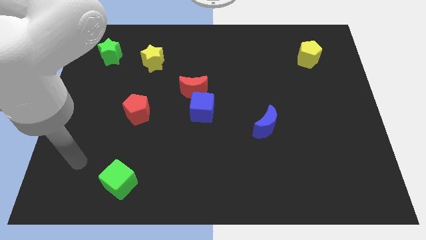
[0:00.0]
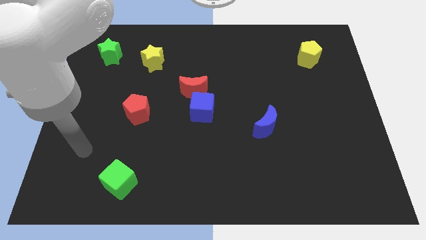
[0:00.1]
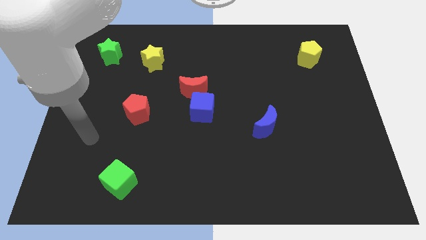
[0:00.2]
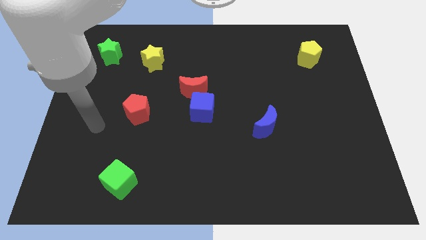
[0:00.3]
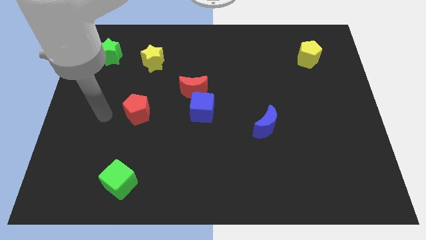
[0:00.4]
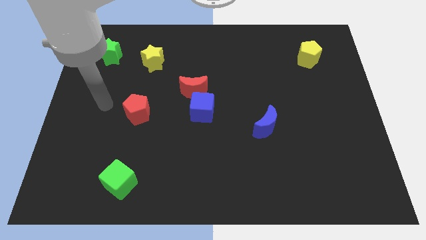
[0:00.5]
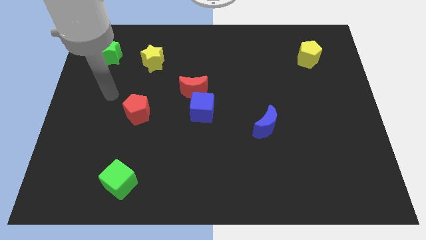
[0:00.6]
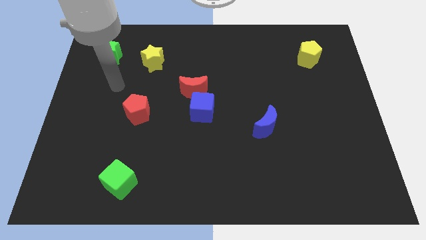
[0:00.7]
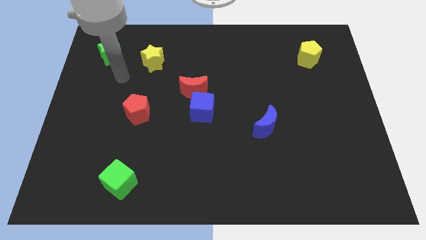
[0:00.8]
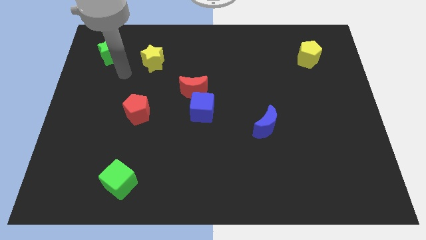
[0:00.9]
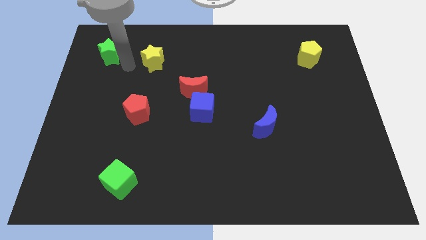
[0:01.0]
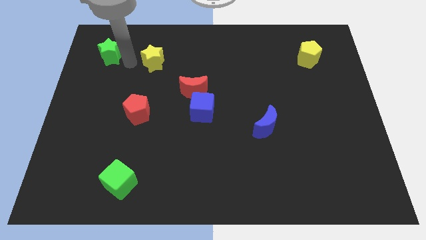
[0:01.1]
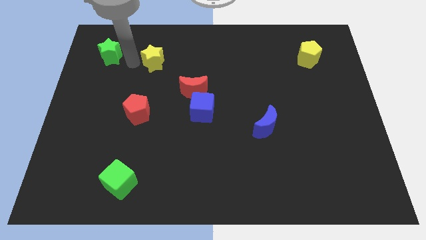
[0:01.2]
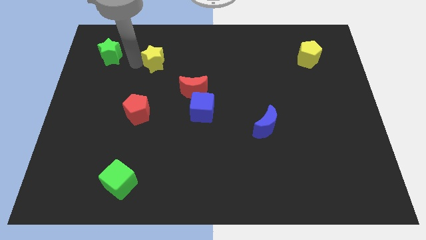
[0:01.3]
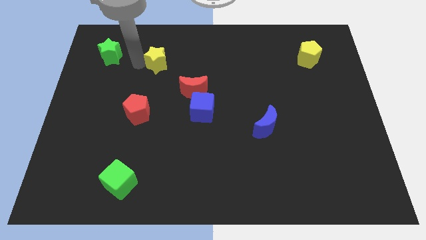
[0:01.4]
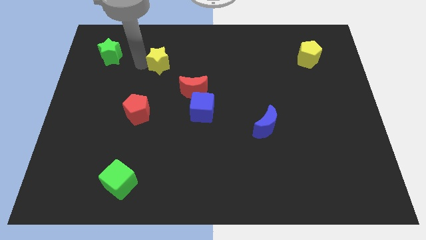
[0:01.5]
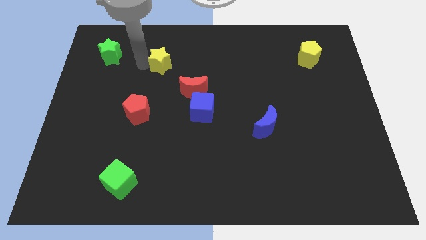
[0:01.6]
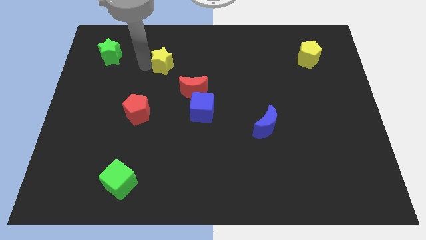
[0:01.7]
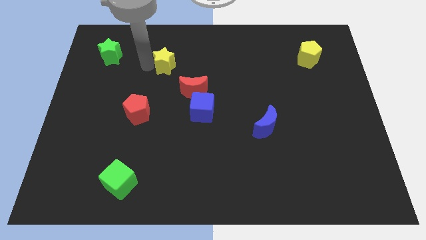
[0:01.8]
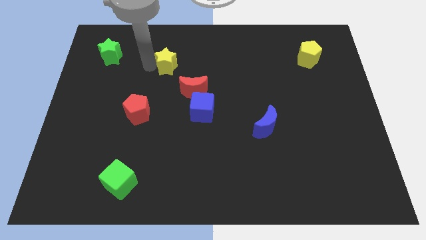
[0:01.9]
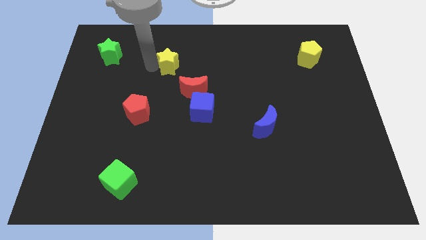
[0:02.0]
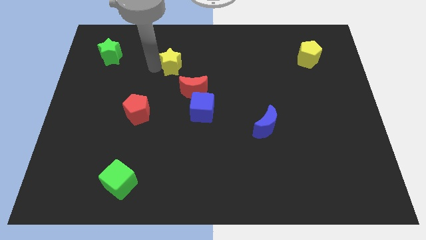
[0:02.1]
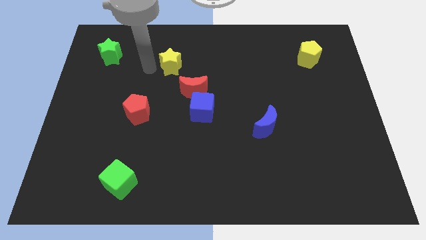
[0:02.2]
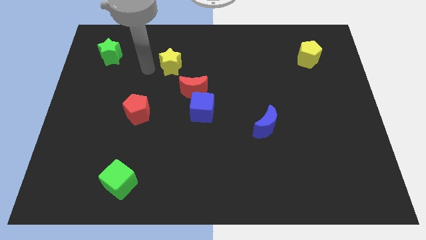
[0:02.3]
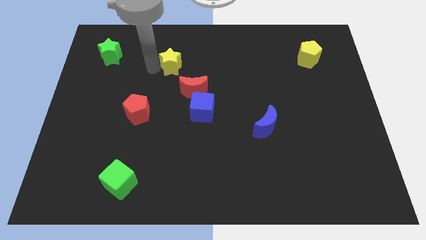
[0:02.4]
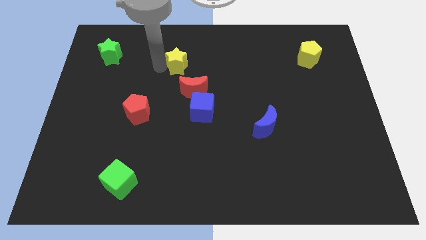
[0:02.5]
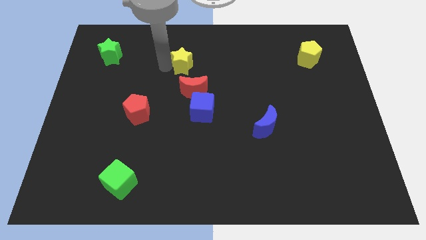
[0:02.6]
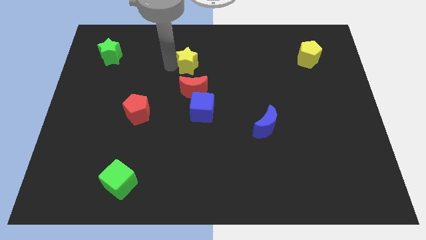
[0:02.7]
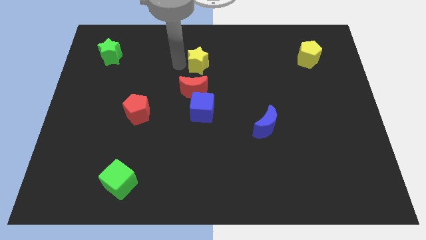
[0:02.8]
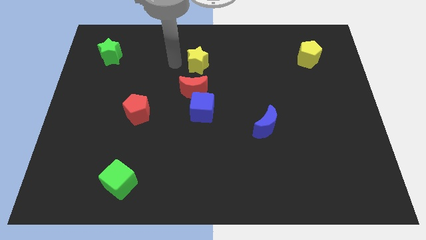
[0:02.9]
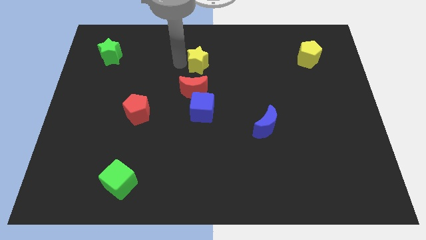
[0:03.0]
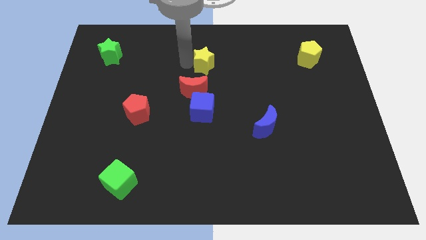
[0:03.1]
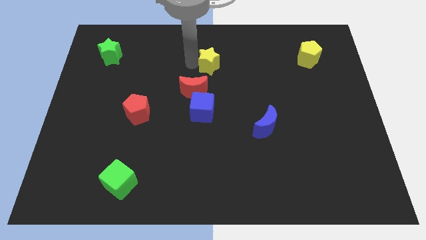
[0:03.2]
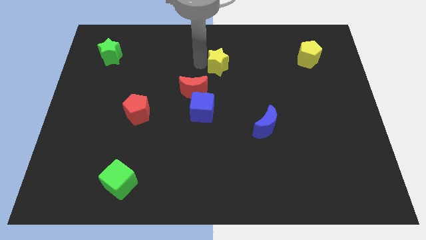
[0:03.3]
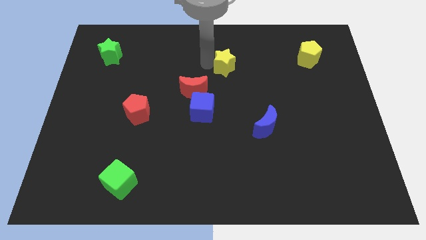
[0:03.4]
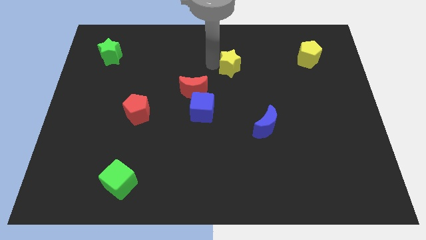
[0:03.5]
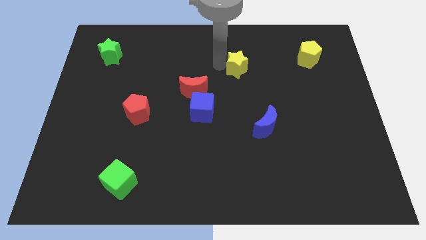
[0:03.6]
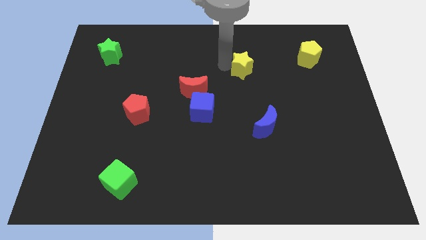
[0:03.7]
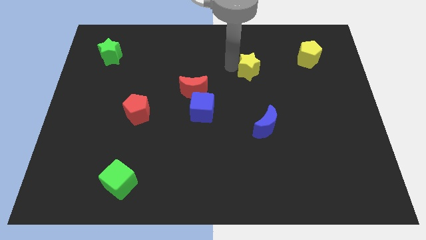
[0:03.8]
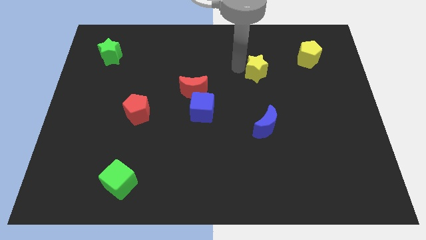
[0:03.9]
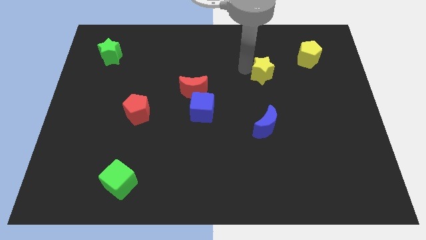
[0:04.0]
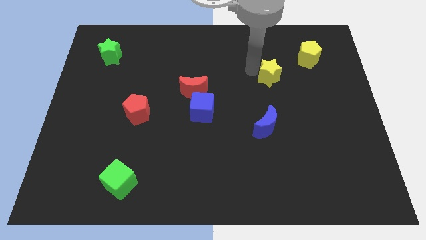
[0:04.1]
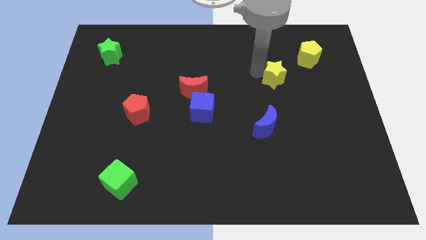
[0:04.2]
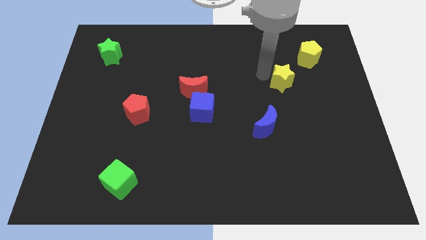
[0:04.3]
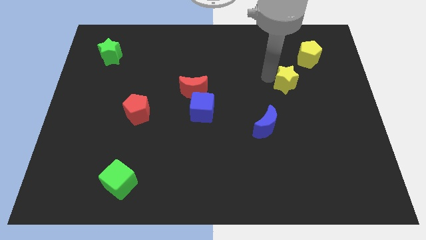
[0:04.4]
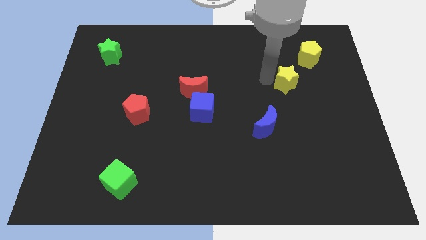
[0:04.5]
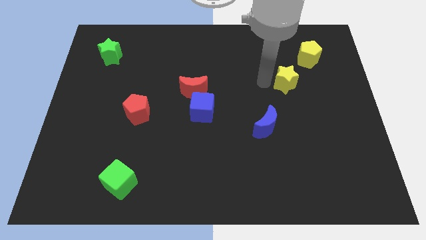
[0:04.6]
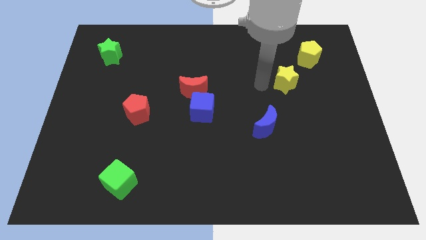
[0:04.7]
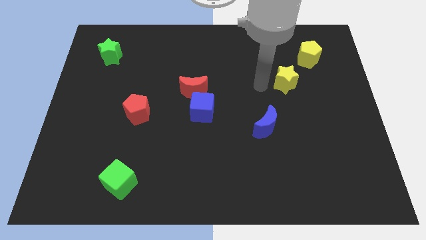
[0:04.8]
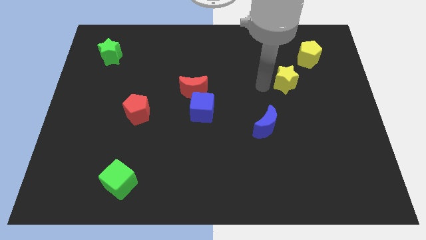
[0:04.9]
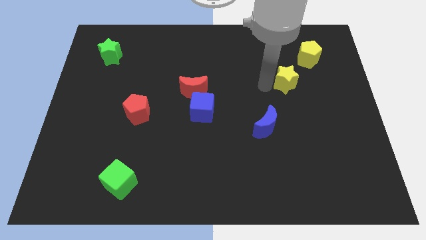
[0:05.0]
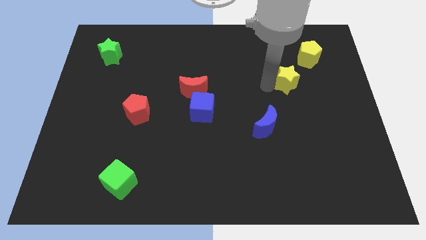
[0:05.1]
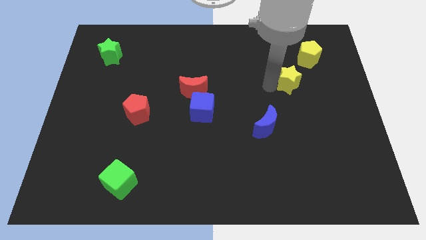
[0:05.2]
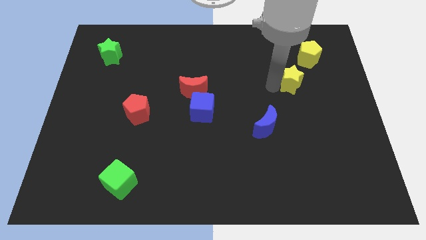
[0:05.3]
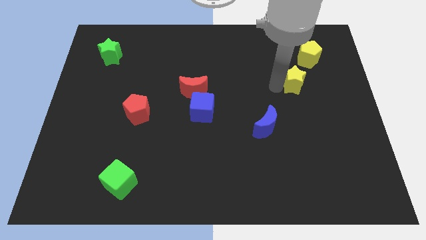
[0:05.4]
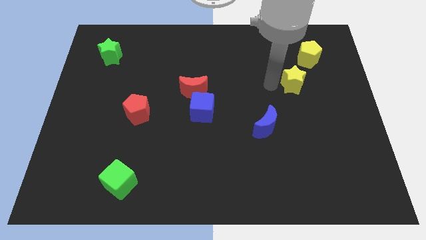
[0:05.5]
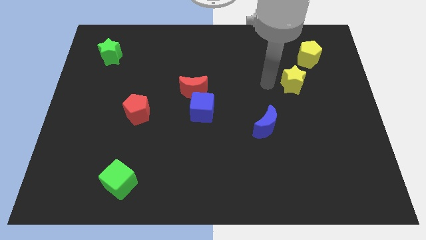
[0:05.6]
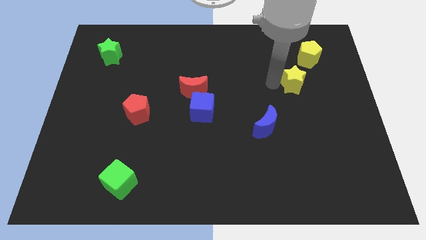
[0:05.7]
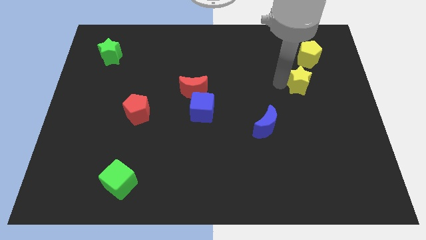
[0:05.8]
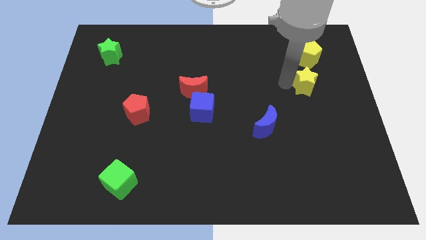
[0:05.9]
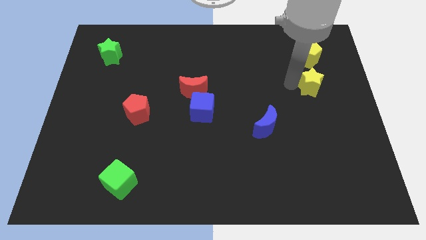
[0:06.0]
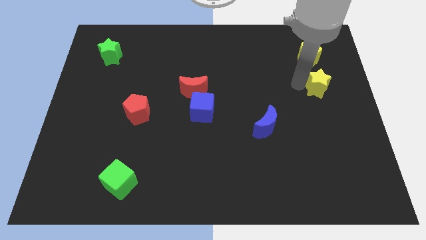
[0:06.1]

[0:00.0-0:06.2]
slide the yellow star to the center right

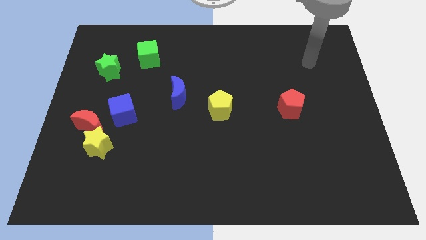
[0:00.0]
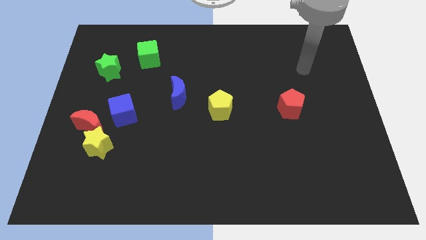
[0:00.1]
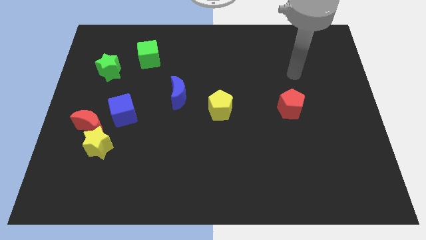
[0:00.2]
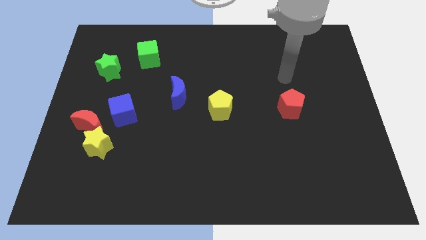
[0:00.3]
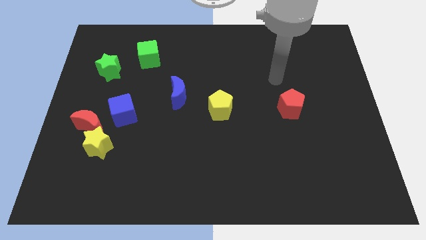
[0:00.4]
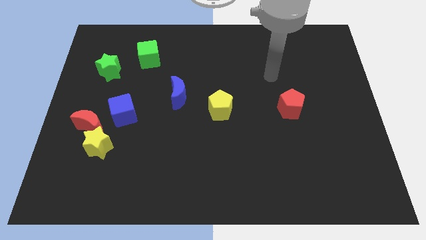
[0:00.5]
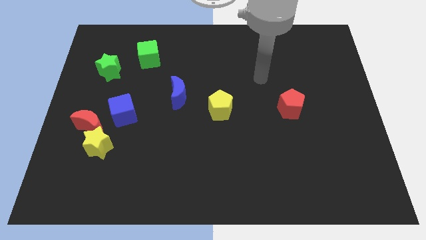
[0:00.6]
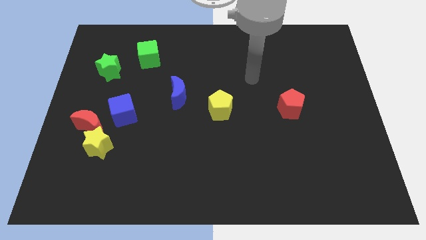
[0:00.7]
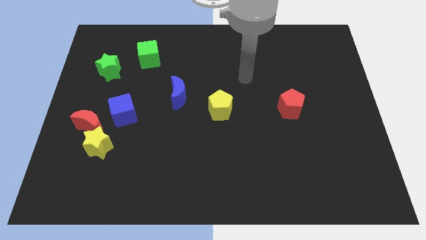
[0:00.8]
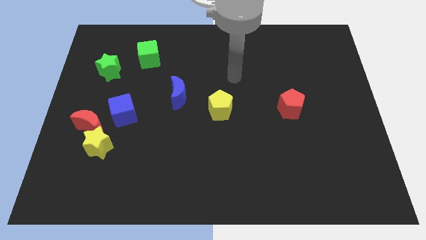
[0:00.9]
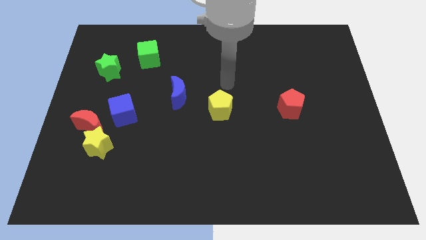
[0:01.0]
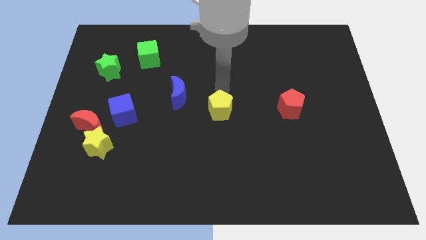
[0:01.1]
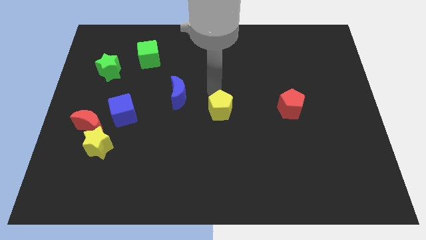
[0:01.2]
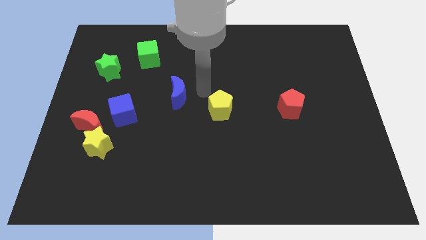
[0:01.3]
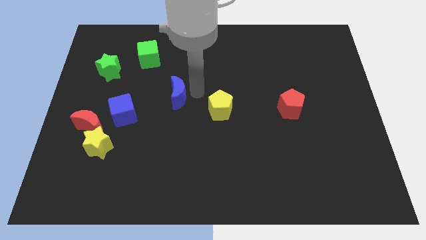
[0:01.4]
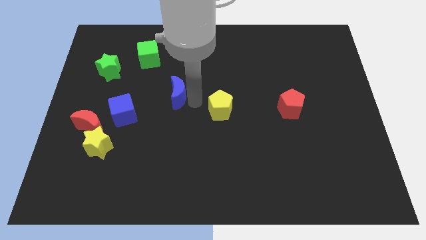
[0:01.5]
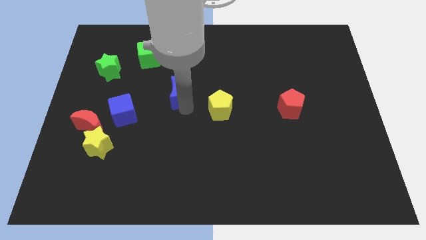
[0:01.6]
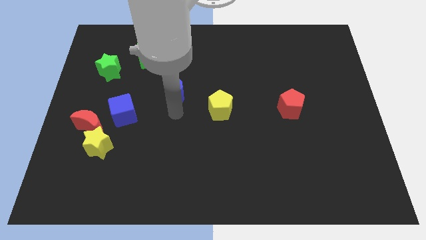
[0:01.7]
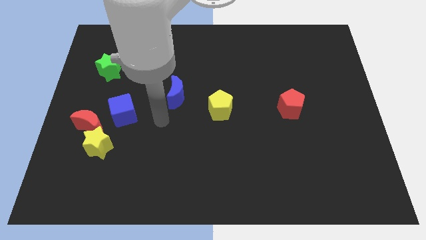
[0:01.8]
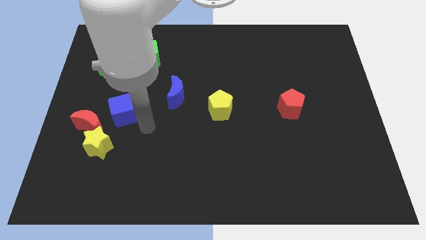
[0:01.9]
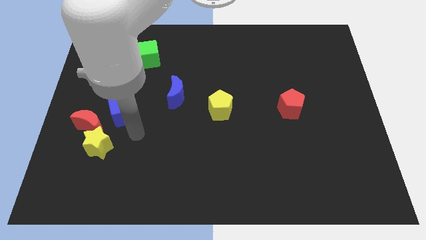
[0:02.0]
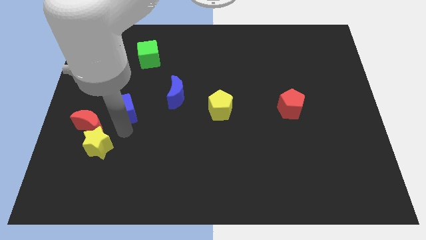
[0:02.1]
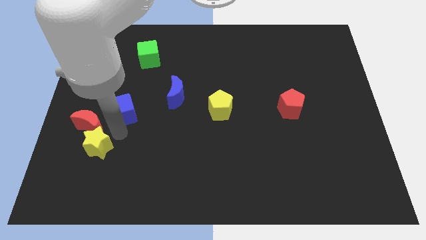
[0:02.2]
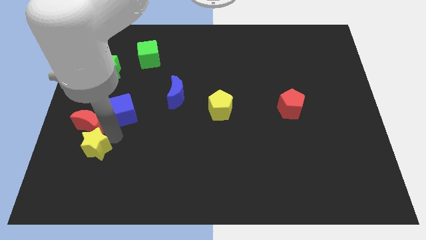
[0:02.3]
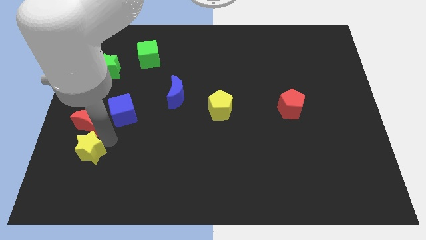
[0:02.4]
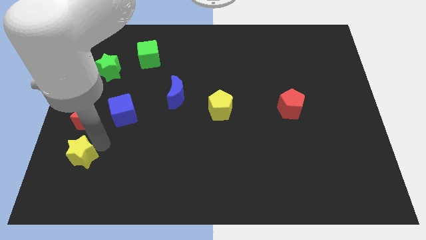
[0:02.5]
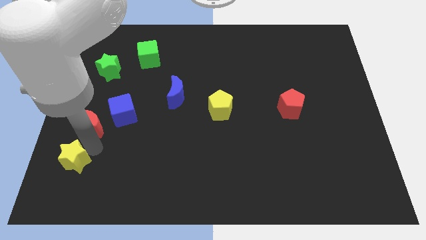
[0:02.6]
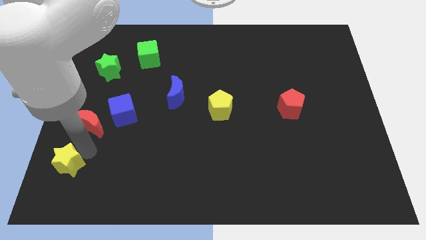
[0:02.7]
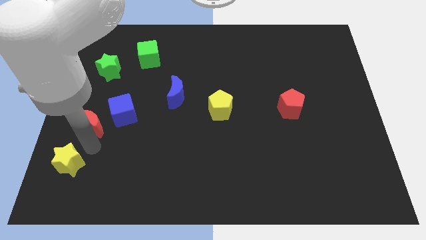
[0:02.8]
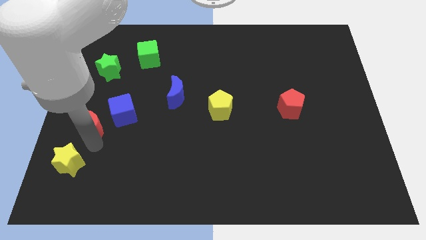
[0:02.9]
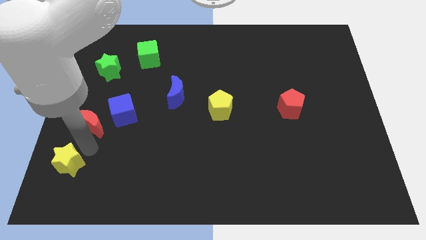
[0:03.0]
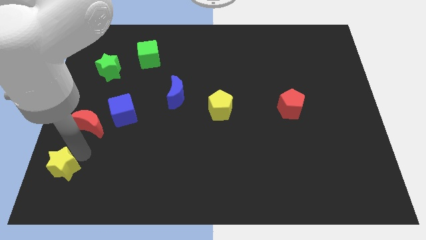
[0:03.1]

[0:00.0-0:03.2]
push the yellow star to the bottom left of the board
